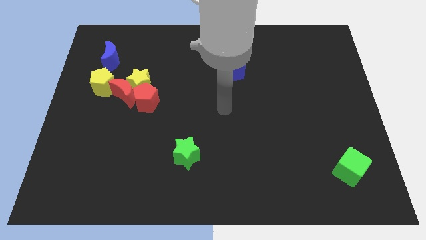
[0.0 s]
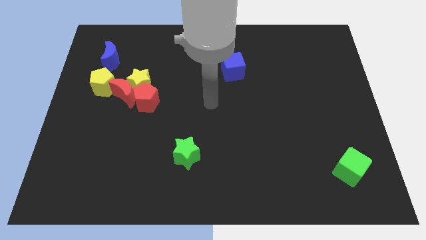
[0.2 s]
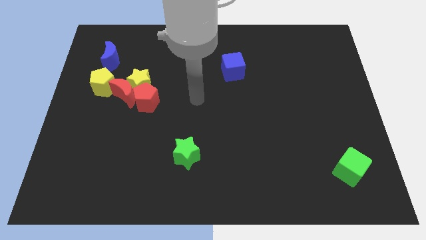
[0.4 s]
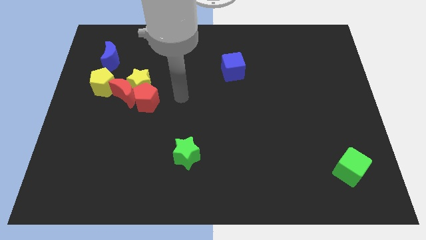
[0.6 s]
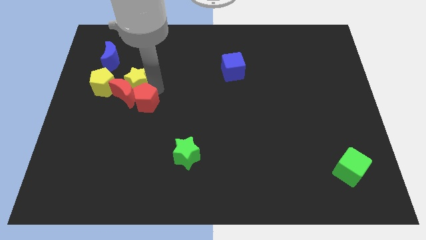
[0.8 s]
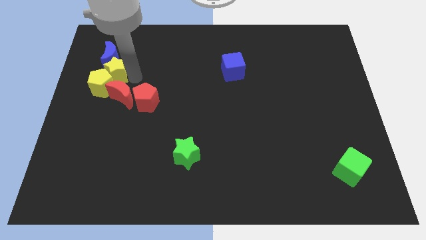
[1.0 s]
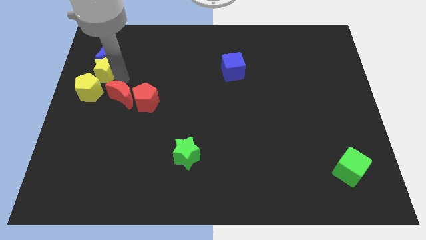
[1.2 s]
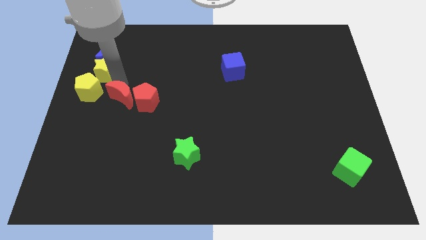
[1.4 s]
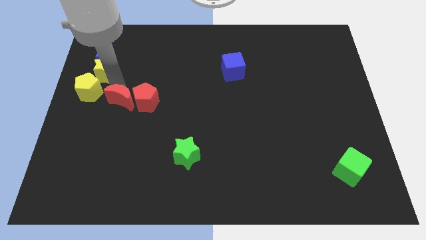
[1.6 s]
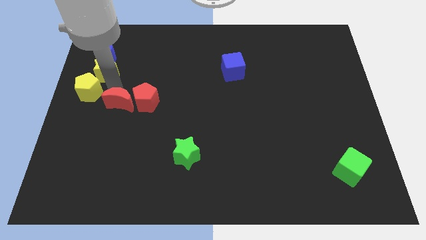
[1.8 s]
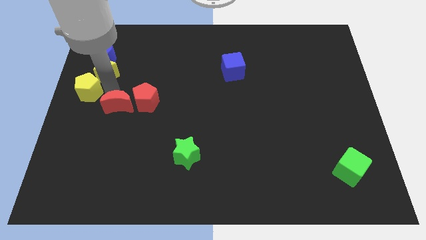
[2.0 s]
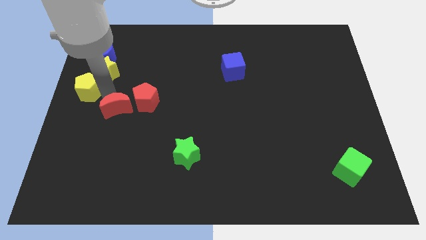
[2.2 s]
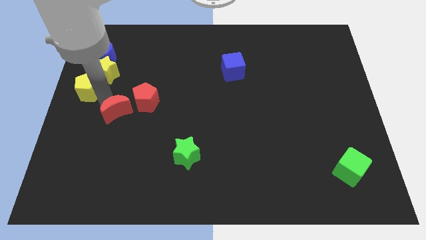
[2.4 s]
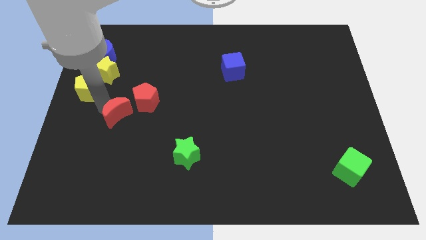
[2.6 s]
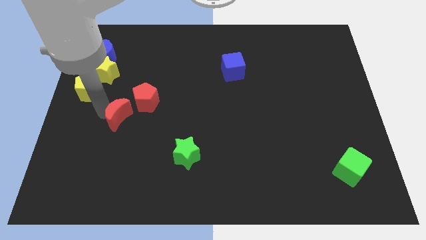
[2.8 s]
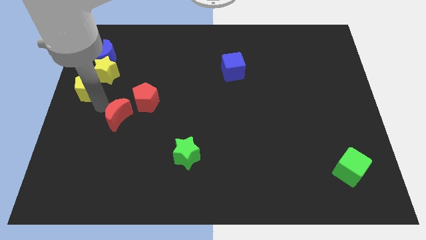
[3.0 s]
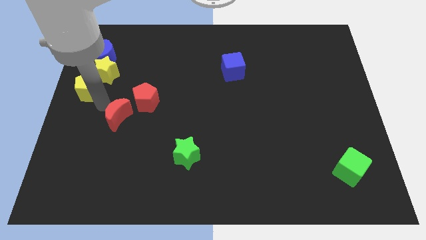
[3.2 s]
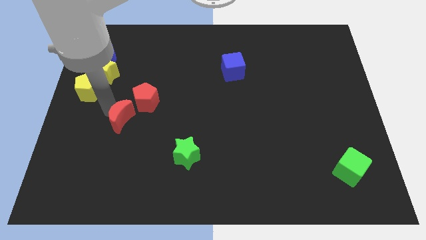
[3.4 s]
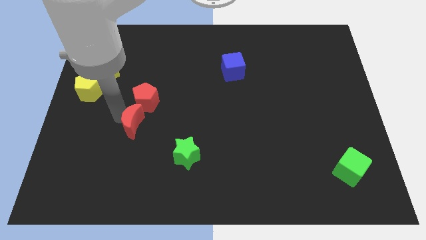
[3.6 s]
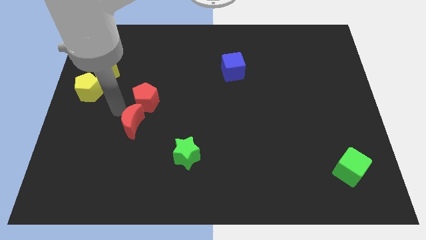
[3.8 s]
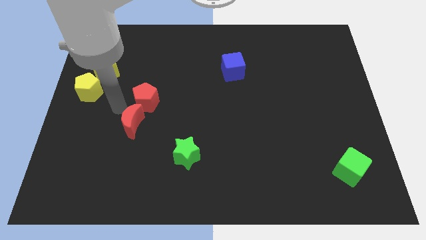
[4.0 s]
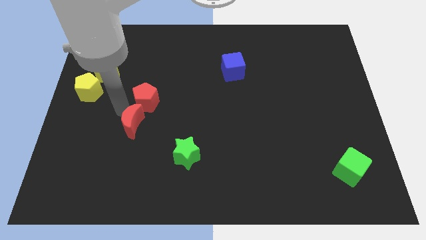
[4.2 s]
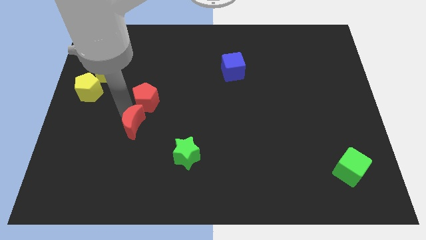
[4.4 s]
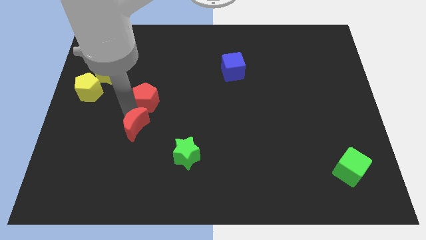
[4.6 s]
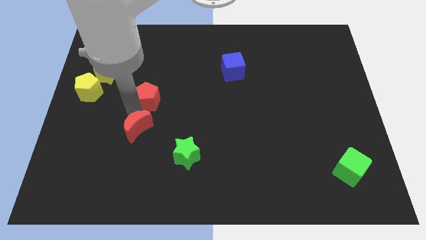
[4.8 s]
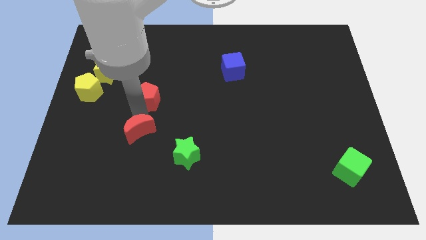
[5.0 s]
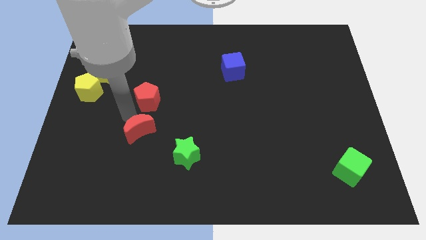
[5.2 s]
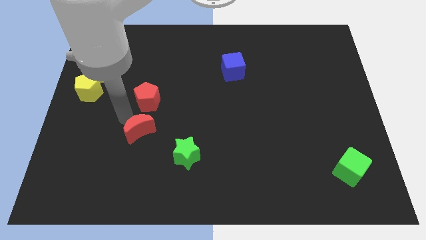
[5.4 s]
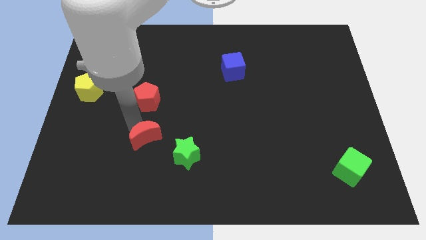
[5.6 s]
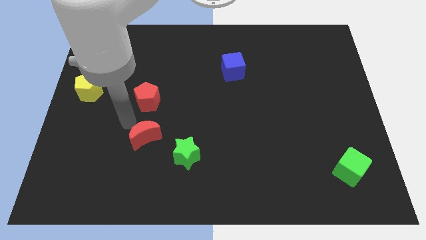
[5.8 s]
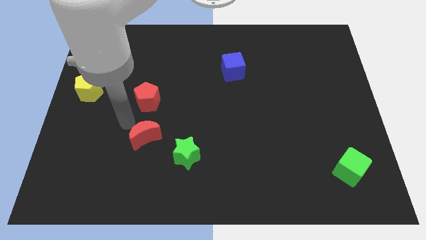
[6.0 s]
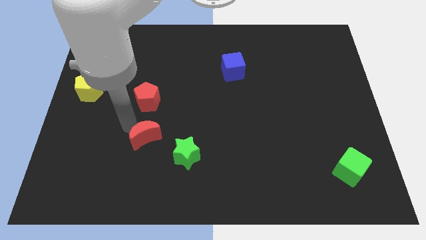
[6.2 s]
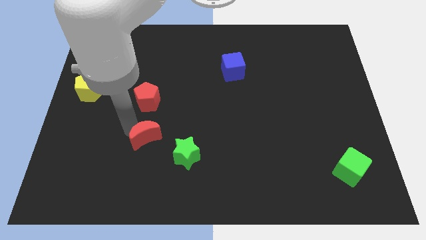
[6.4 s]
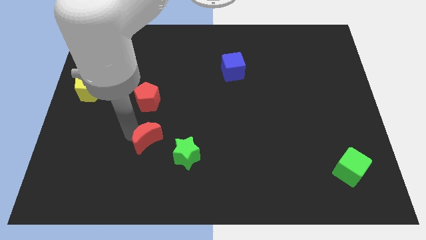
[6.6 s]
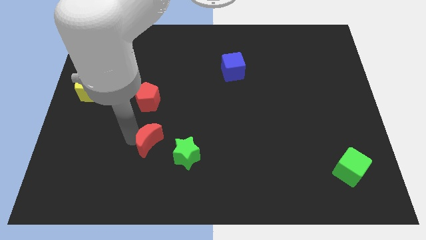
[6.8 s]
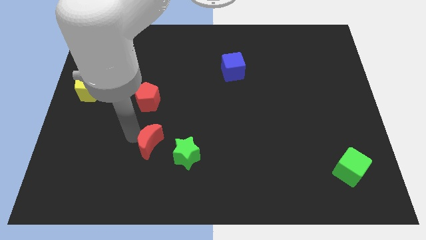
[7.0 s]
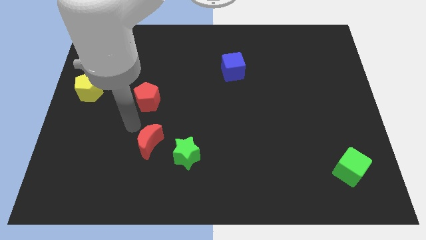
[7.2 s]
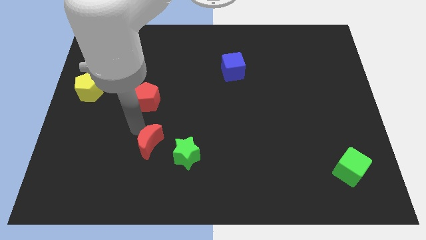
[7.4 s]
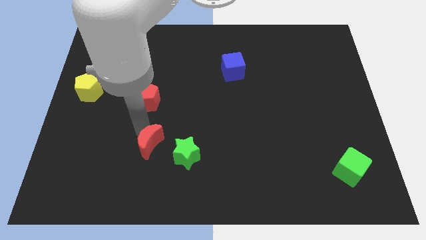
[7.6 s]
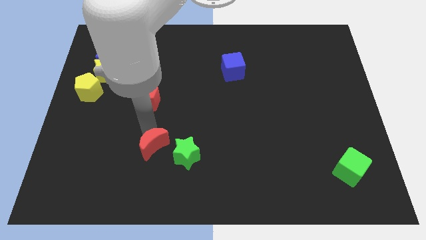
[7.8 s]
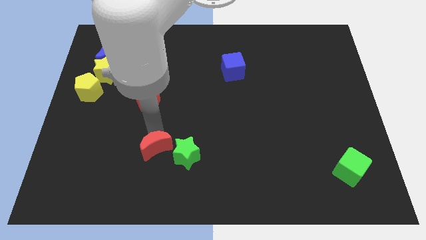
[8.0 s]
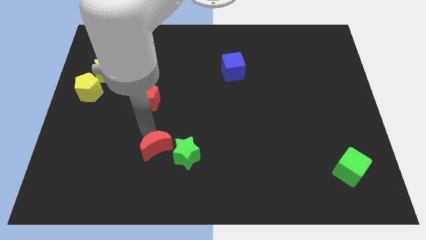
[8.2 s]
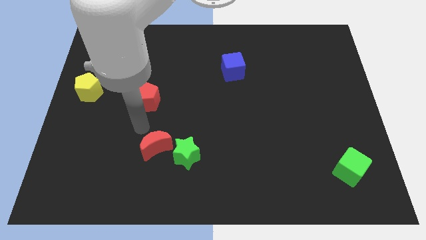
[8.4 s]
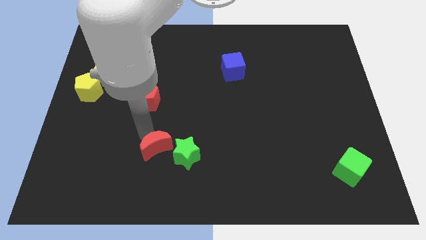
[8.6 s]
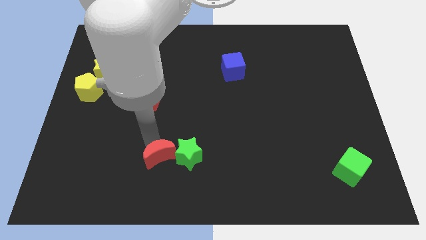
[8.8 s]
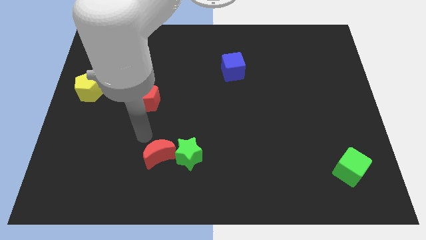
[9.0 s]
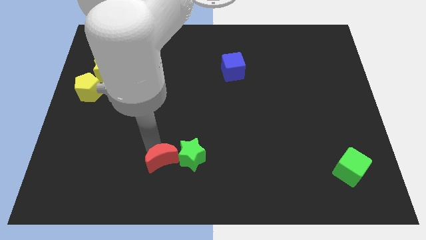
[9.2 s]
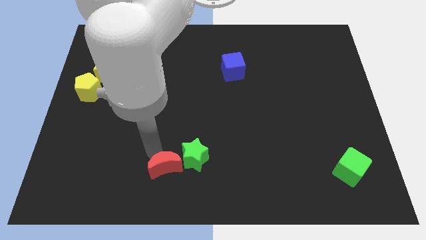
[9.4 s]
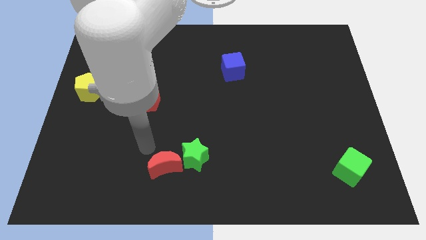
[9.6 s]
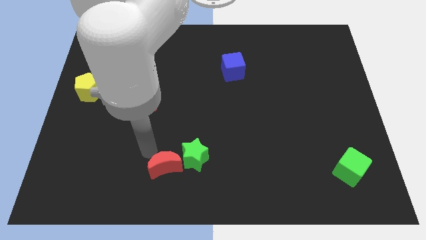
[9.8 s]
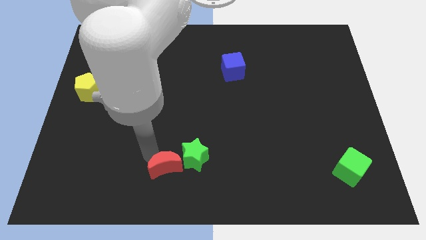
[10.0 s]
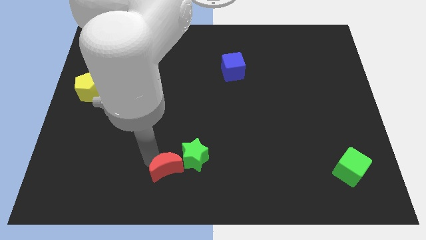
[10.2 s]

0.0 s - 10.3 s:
slide the red moon to the bottom side
